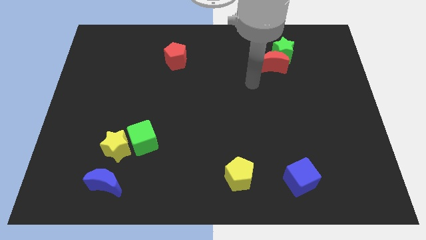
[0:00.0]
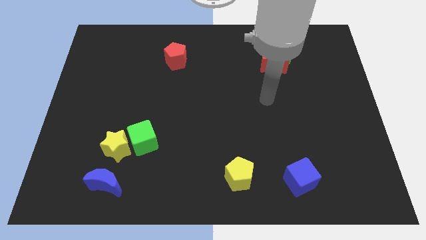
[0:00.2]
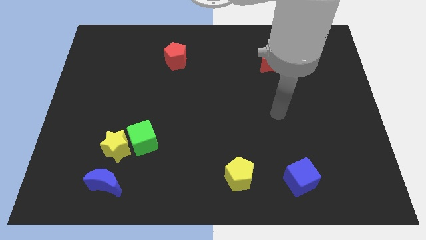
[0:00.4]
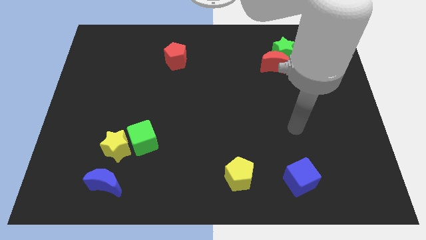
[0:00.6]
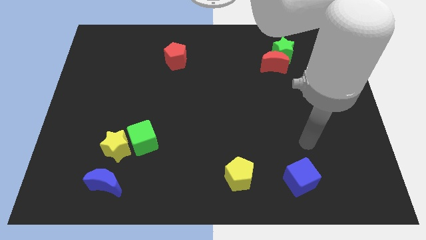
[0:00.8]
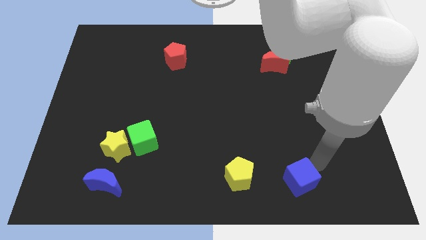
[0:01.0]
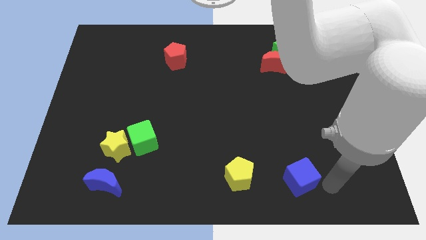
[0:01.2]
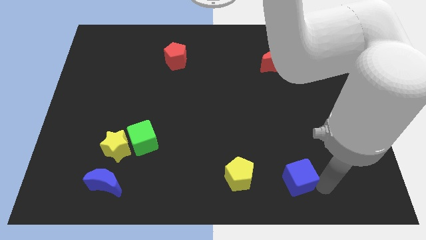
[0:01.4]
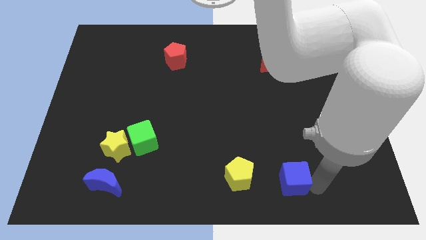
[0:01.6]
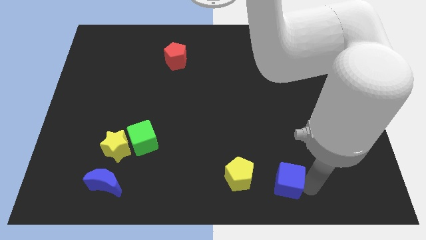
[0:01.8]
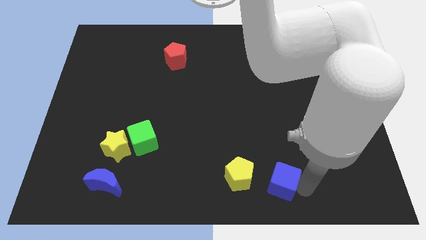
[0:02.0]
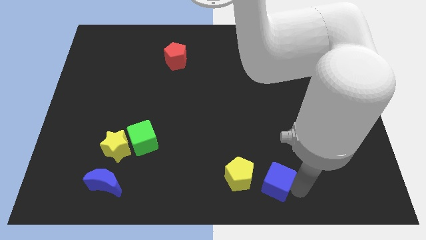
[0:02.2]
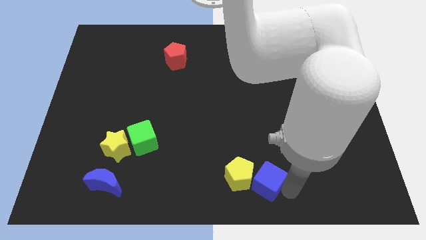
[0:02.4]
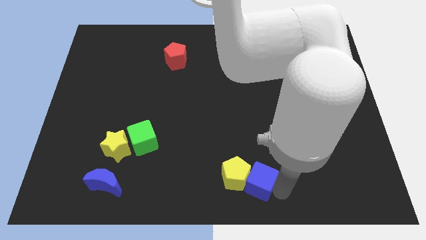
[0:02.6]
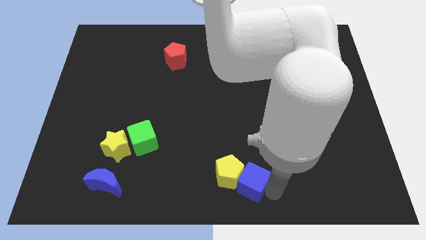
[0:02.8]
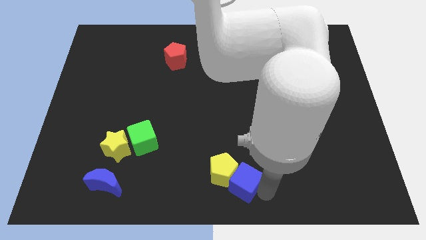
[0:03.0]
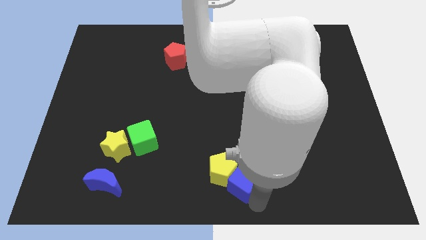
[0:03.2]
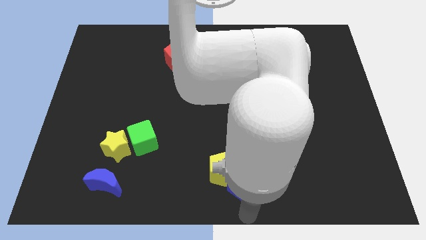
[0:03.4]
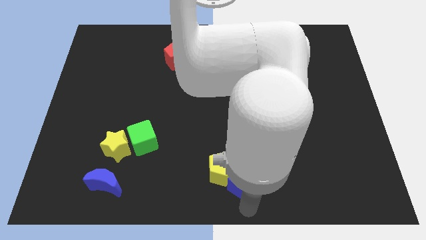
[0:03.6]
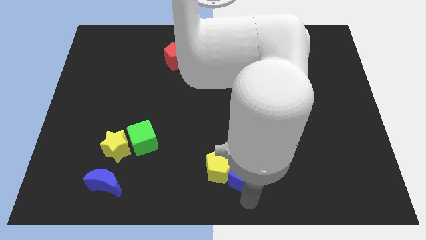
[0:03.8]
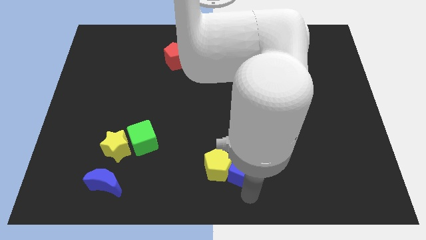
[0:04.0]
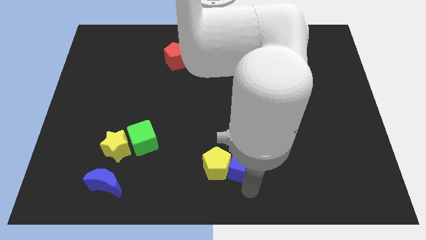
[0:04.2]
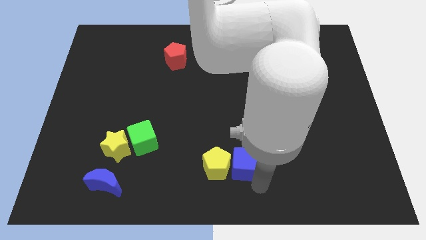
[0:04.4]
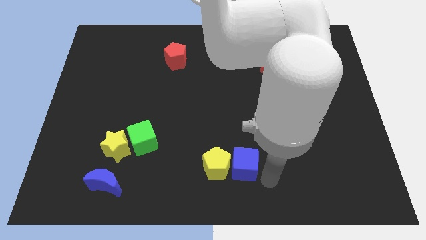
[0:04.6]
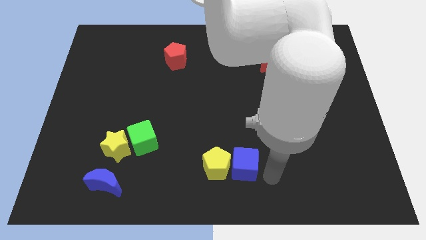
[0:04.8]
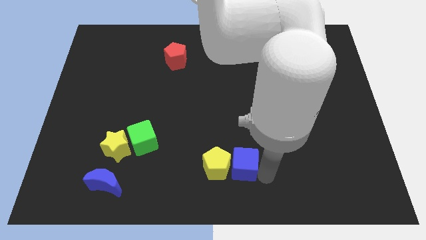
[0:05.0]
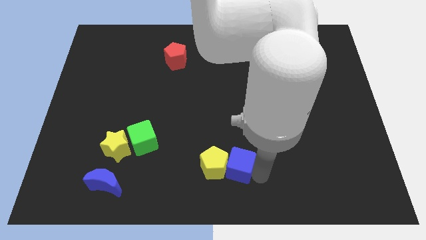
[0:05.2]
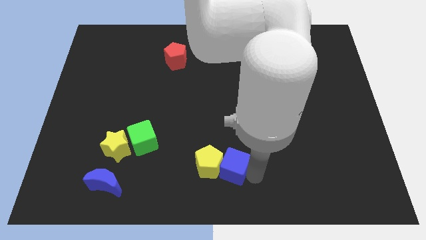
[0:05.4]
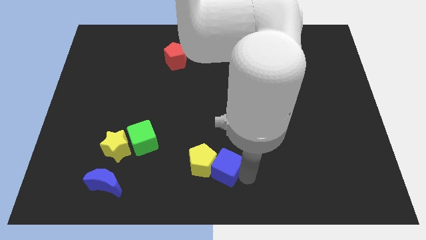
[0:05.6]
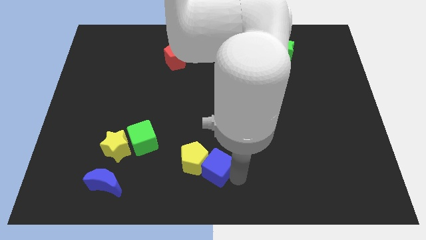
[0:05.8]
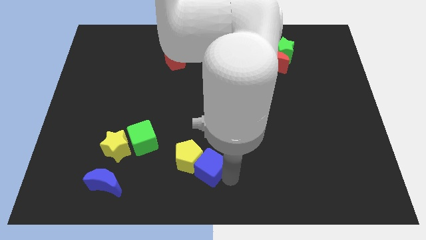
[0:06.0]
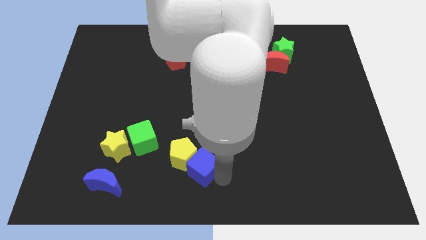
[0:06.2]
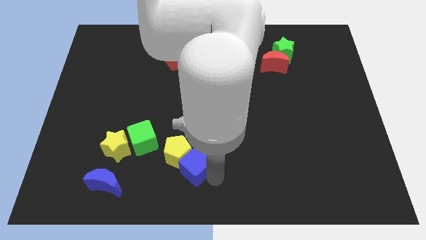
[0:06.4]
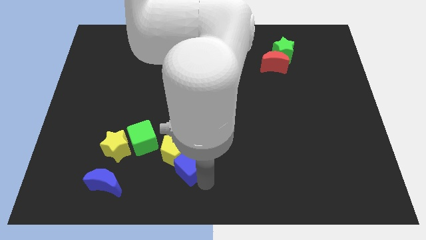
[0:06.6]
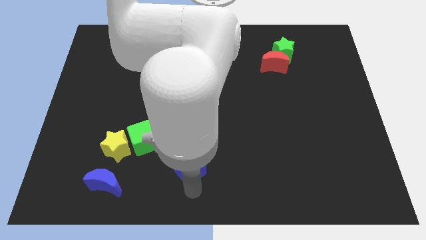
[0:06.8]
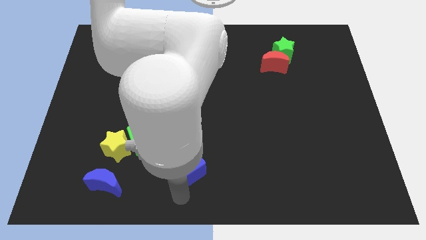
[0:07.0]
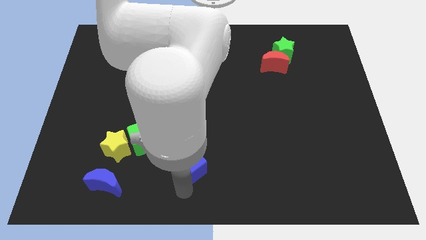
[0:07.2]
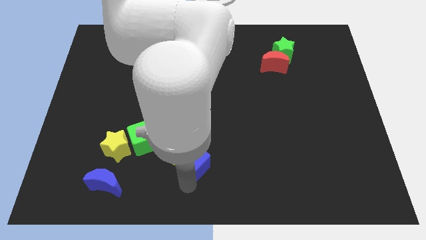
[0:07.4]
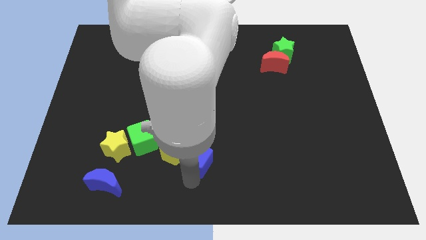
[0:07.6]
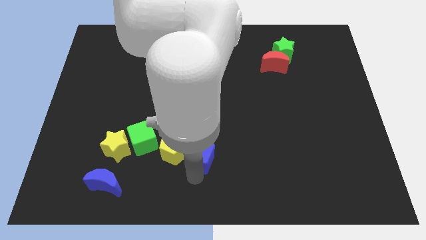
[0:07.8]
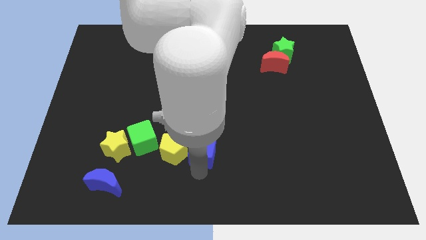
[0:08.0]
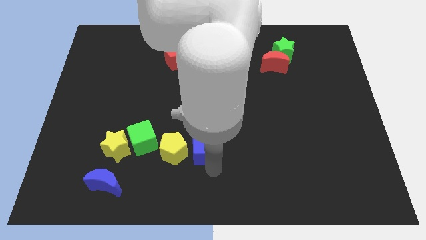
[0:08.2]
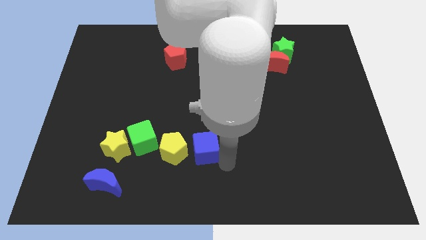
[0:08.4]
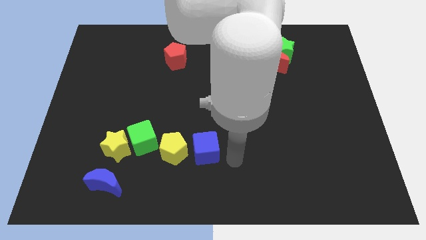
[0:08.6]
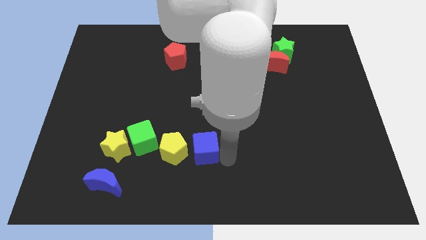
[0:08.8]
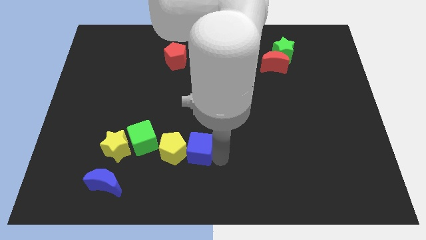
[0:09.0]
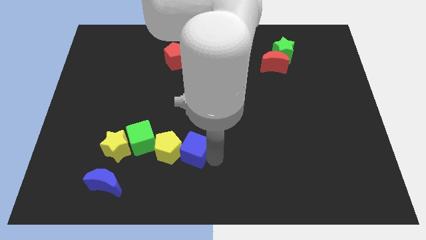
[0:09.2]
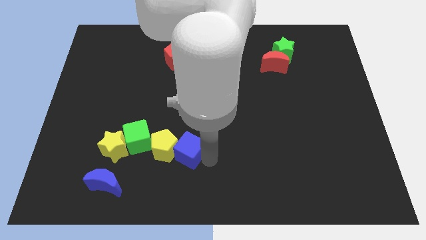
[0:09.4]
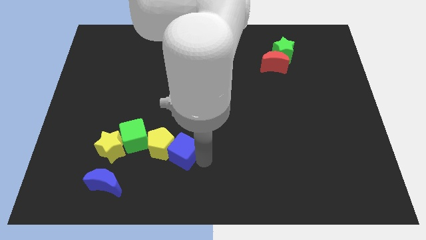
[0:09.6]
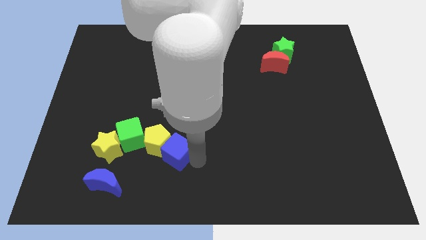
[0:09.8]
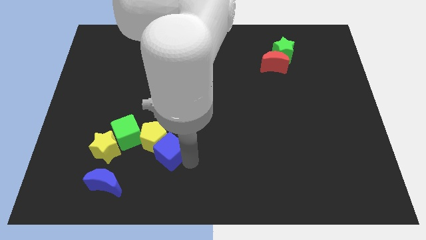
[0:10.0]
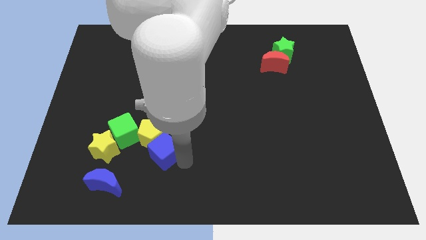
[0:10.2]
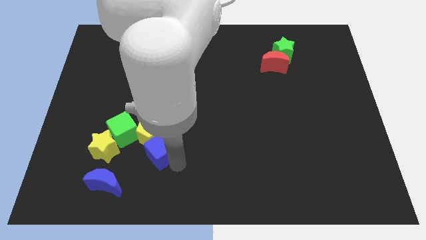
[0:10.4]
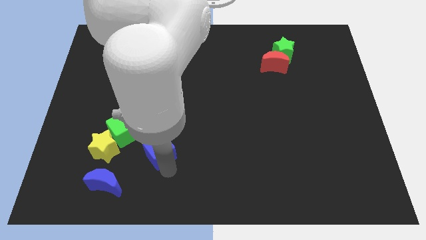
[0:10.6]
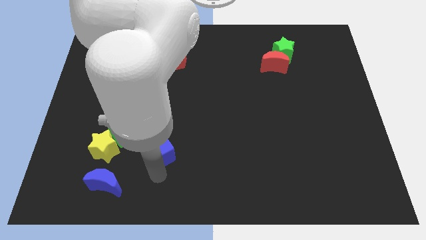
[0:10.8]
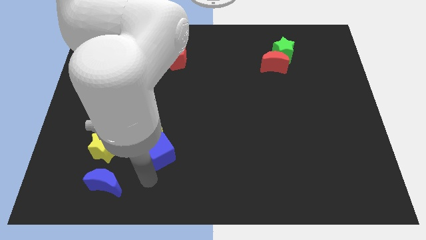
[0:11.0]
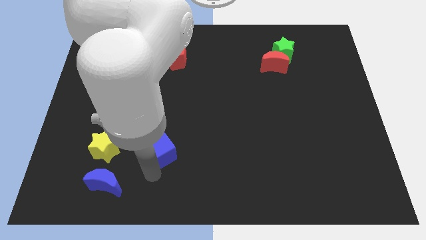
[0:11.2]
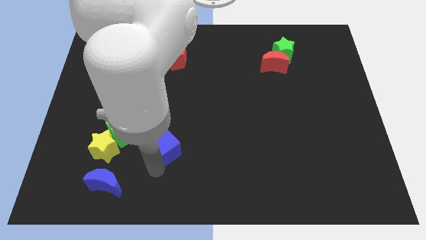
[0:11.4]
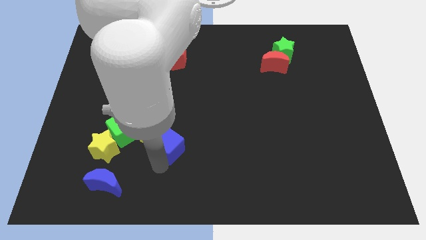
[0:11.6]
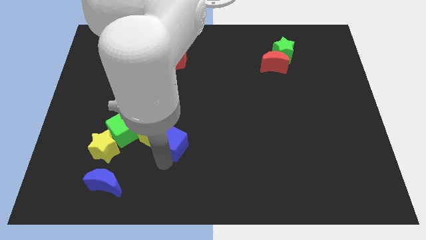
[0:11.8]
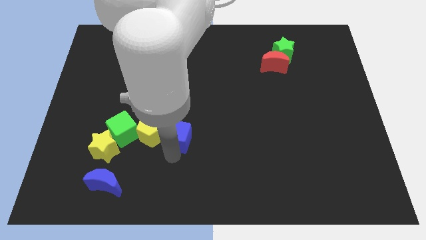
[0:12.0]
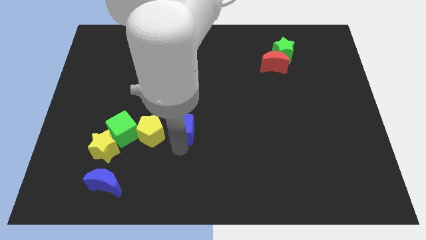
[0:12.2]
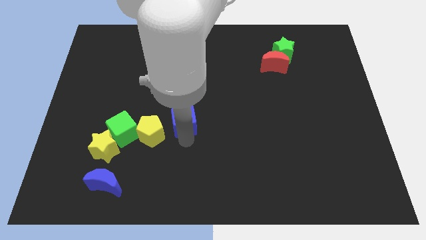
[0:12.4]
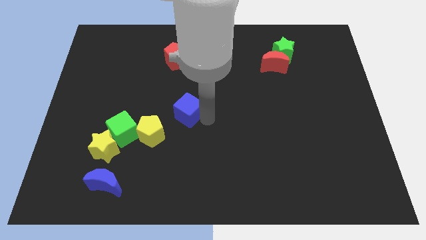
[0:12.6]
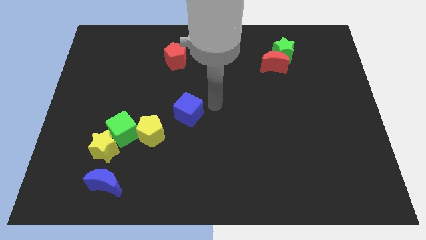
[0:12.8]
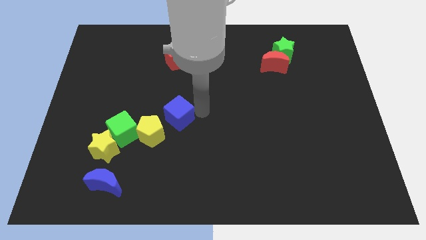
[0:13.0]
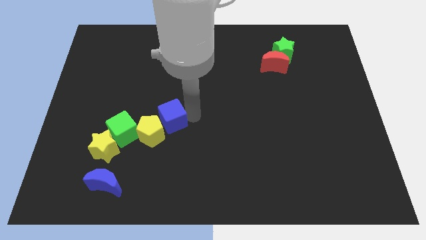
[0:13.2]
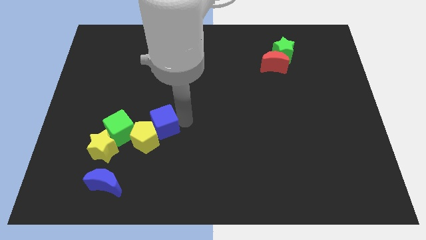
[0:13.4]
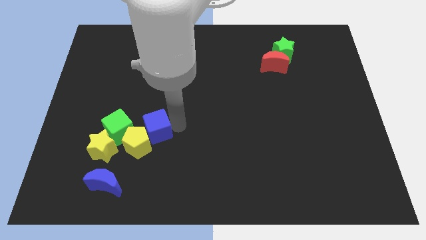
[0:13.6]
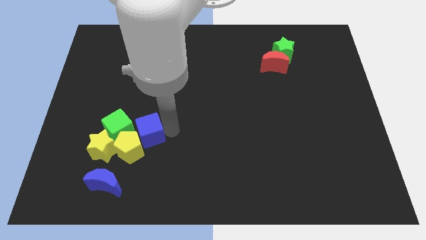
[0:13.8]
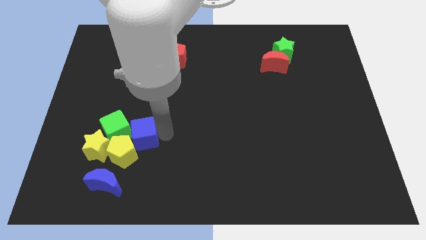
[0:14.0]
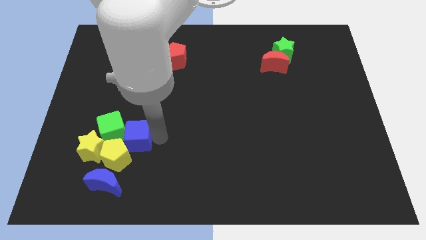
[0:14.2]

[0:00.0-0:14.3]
slide the blue cube towards the green cube

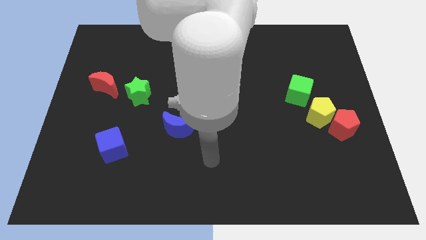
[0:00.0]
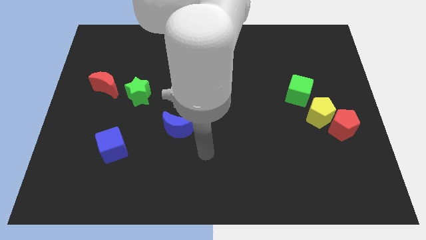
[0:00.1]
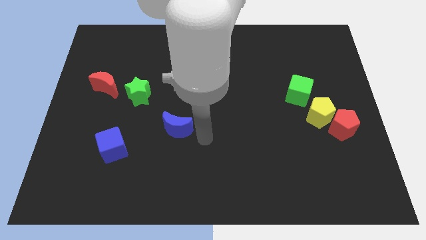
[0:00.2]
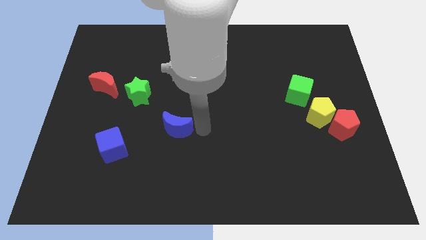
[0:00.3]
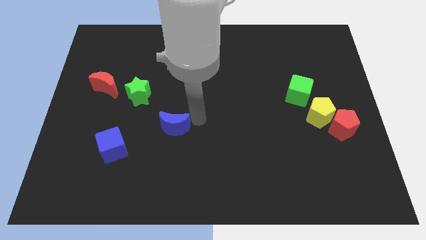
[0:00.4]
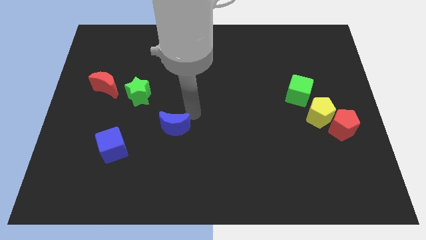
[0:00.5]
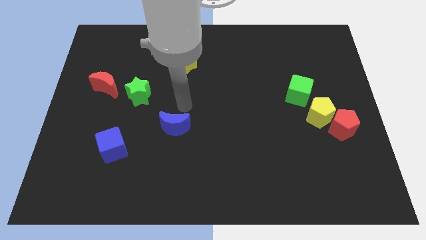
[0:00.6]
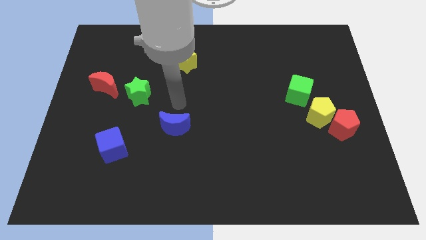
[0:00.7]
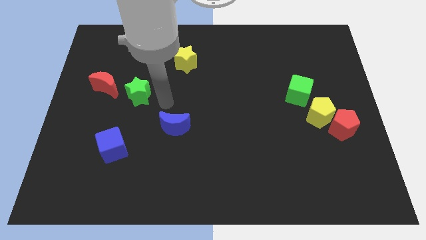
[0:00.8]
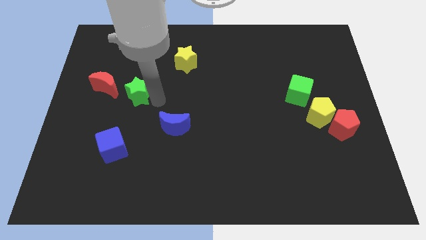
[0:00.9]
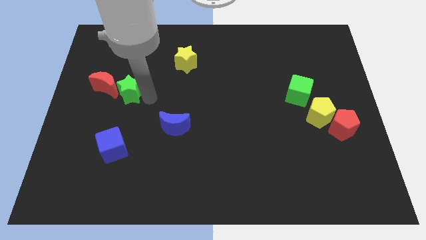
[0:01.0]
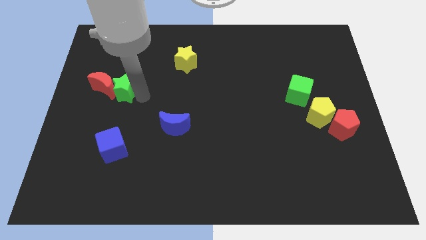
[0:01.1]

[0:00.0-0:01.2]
move the green star close to the red moon
